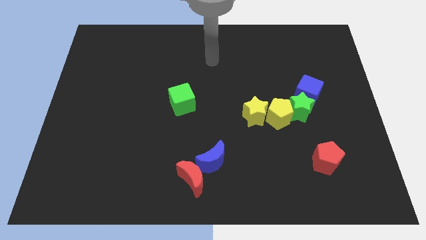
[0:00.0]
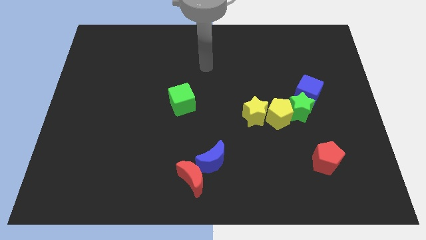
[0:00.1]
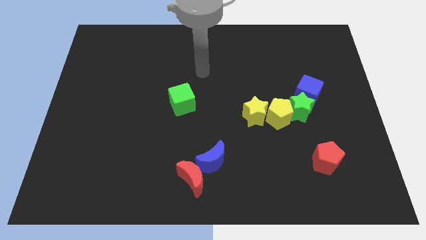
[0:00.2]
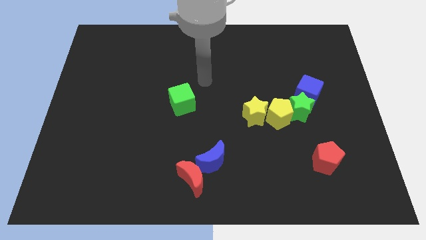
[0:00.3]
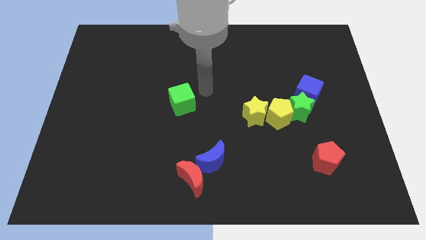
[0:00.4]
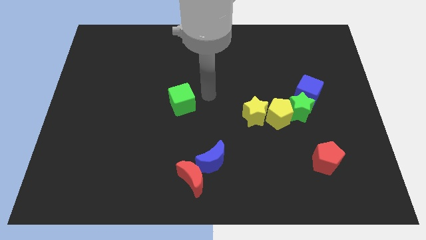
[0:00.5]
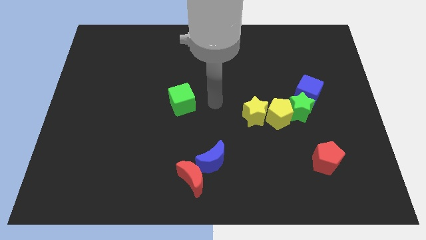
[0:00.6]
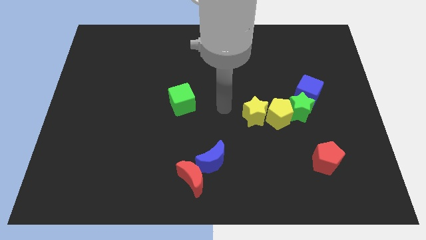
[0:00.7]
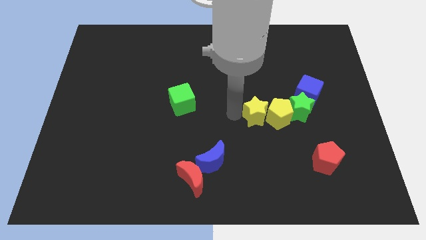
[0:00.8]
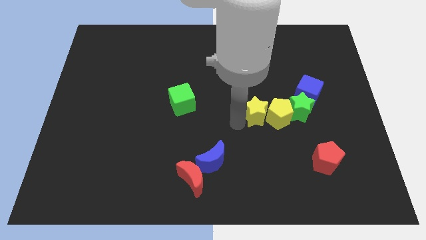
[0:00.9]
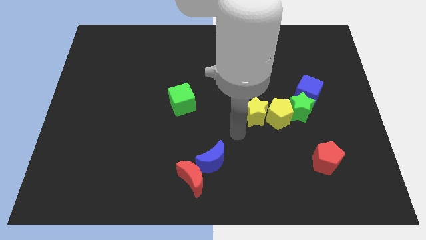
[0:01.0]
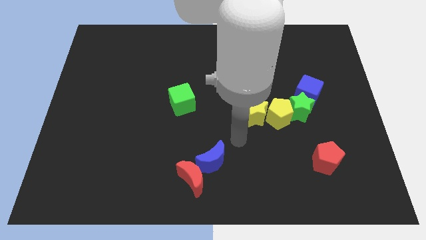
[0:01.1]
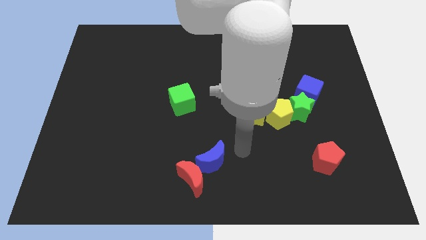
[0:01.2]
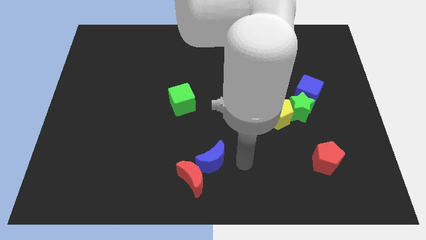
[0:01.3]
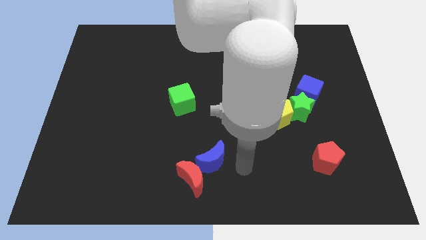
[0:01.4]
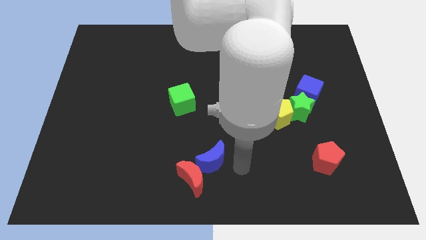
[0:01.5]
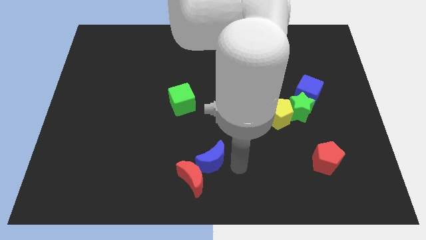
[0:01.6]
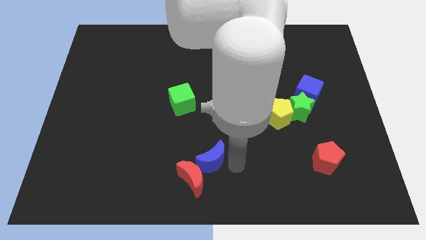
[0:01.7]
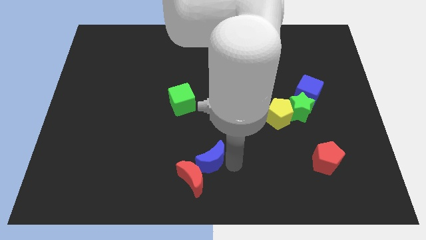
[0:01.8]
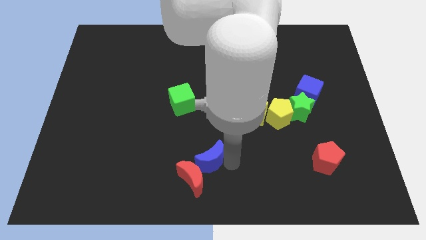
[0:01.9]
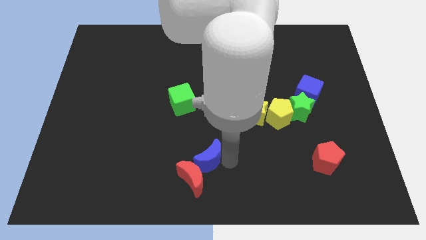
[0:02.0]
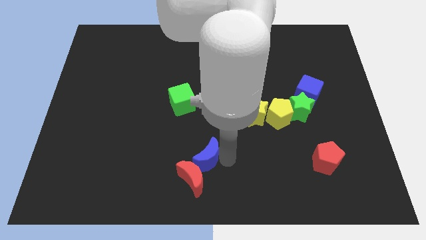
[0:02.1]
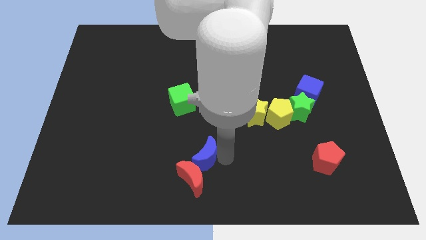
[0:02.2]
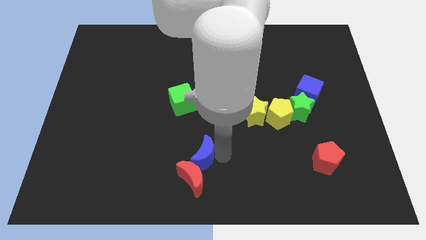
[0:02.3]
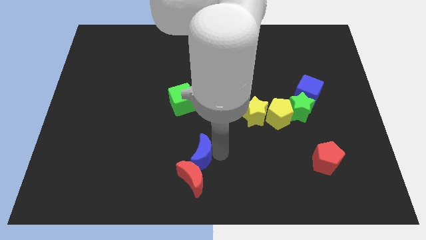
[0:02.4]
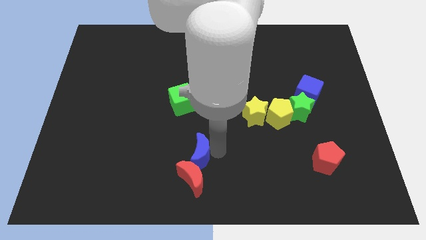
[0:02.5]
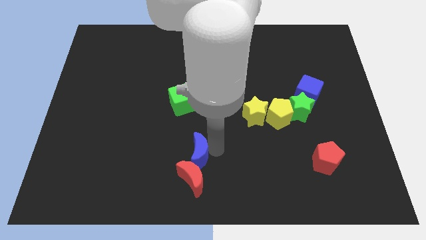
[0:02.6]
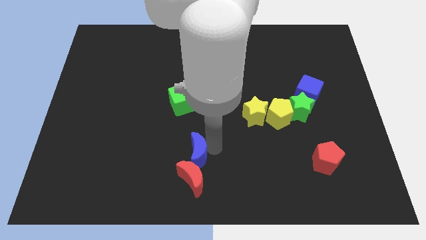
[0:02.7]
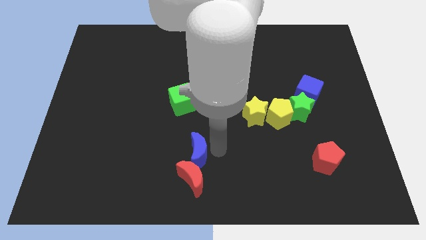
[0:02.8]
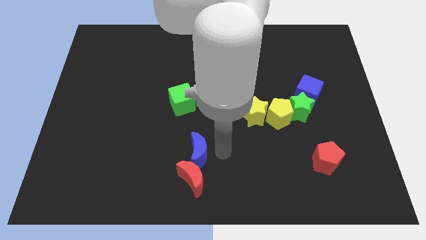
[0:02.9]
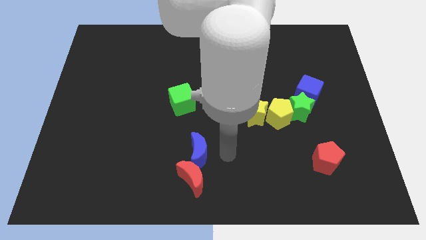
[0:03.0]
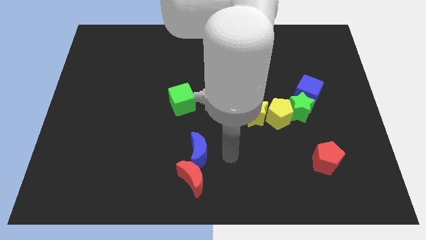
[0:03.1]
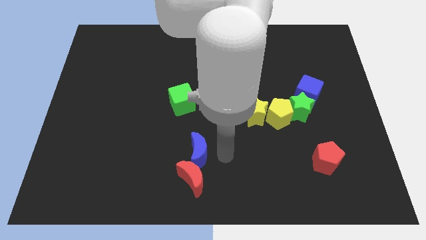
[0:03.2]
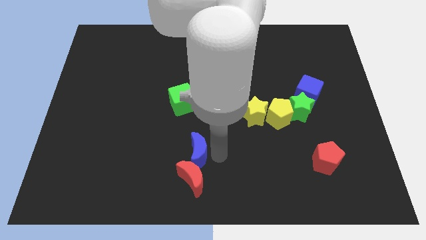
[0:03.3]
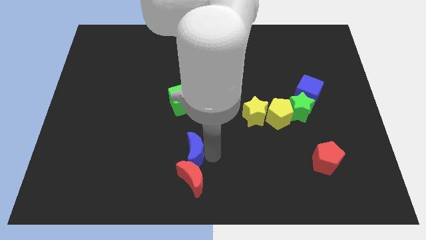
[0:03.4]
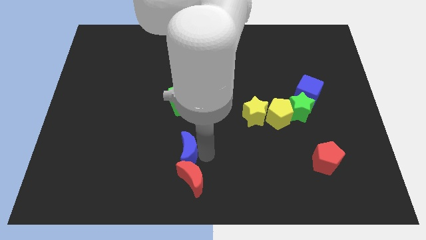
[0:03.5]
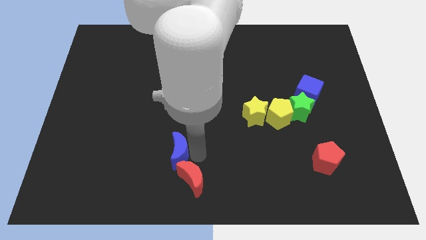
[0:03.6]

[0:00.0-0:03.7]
slide the blue moon left somewhat

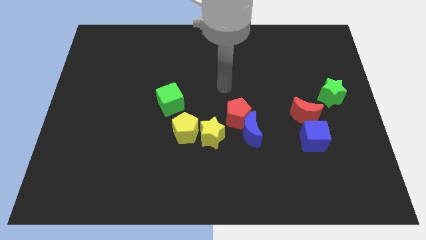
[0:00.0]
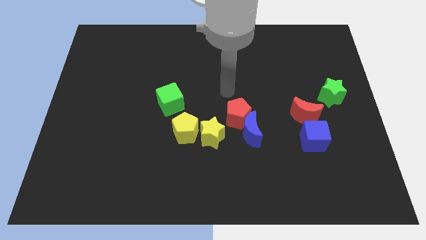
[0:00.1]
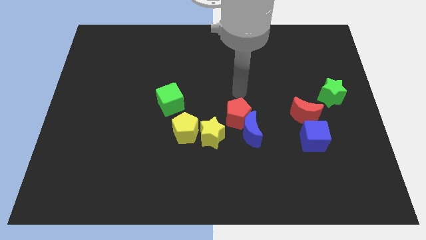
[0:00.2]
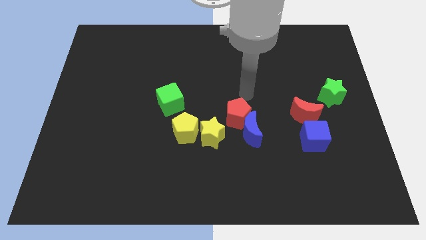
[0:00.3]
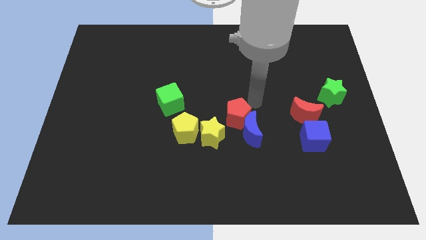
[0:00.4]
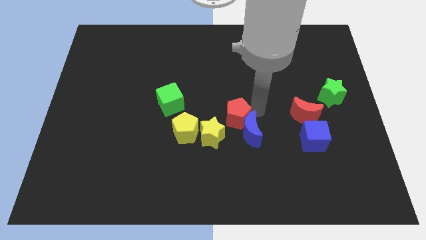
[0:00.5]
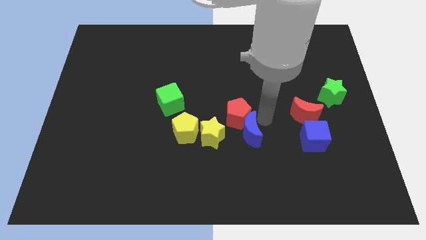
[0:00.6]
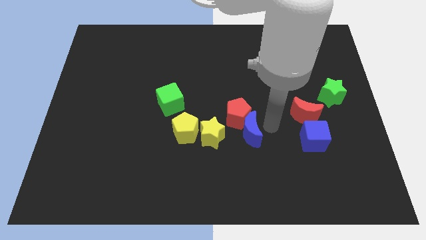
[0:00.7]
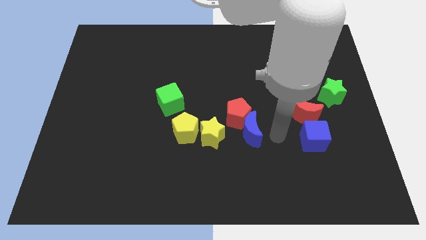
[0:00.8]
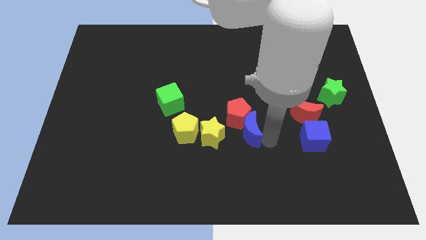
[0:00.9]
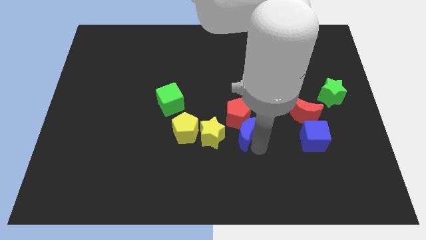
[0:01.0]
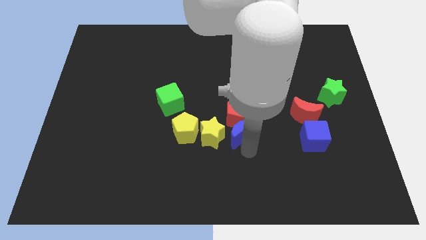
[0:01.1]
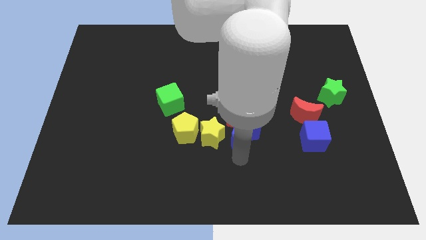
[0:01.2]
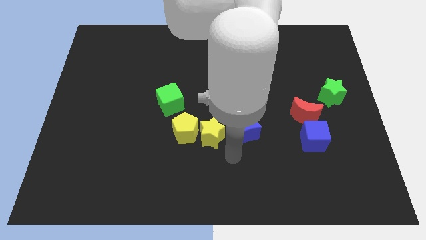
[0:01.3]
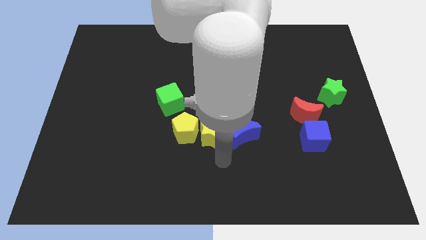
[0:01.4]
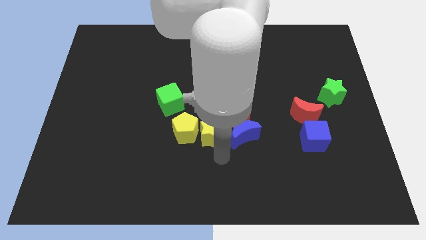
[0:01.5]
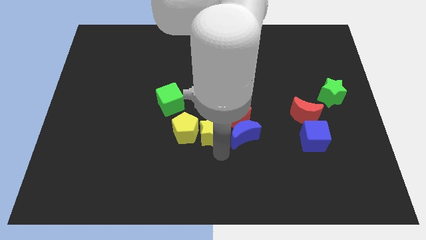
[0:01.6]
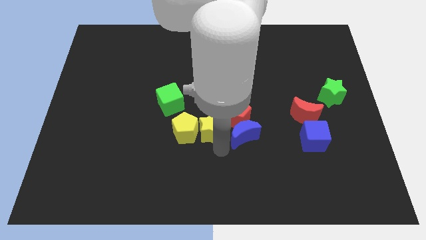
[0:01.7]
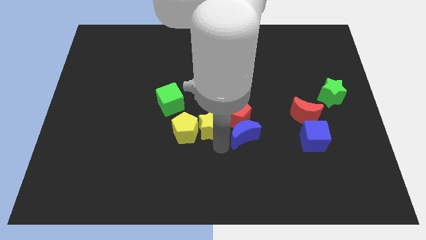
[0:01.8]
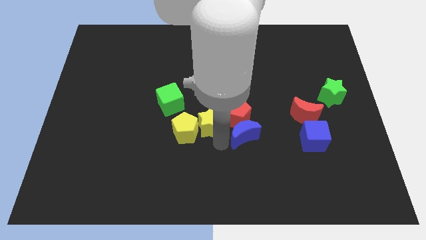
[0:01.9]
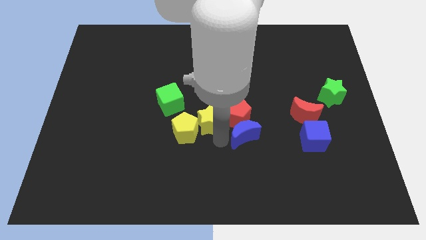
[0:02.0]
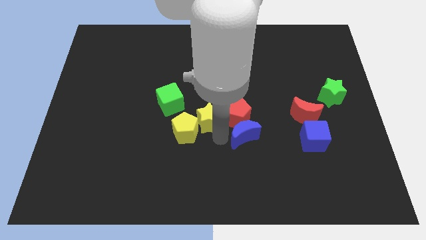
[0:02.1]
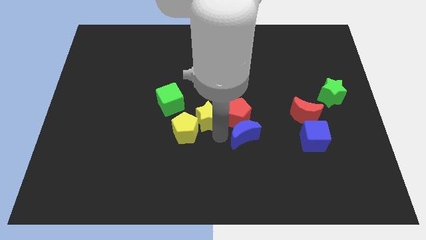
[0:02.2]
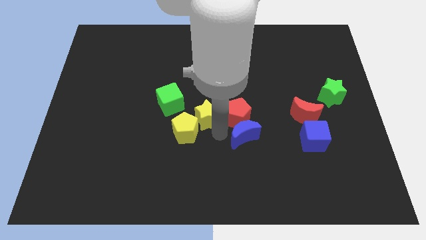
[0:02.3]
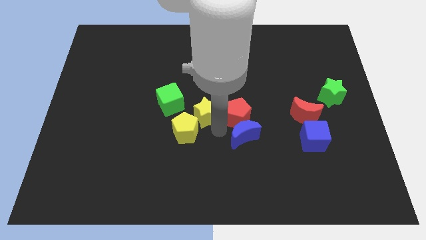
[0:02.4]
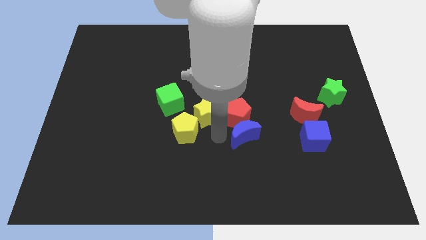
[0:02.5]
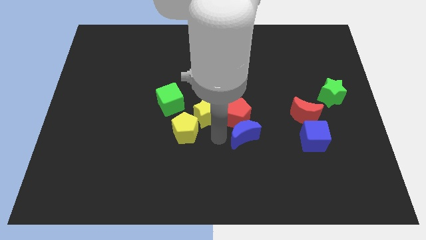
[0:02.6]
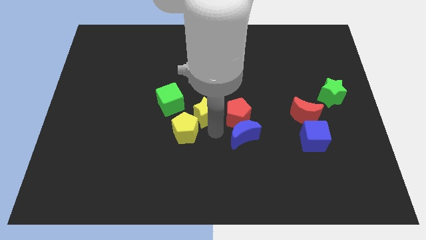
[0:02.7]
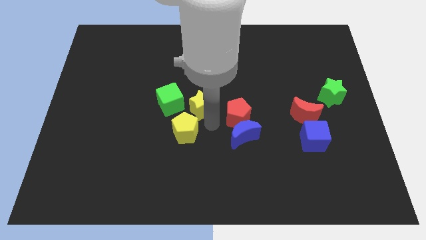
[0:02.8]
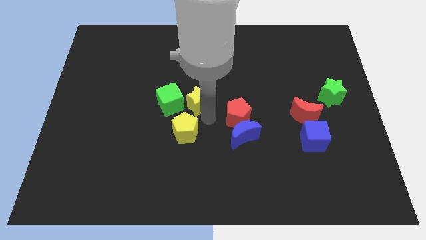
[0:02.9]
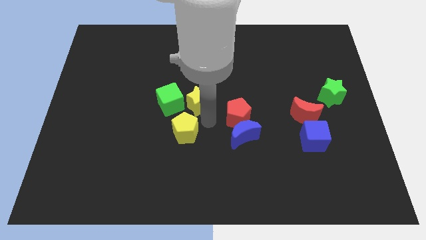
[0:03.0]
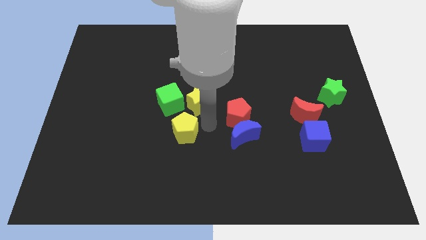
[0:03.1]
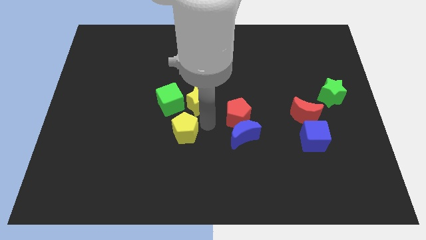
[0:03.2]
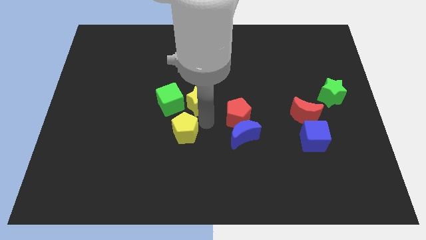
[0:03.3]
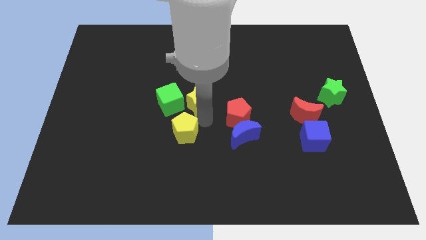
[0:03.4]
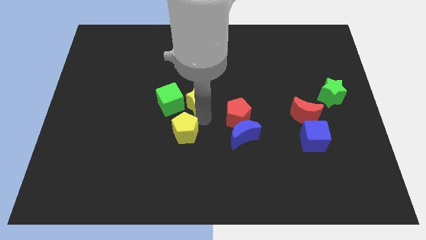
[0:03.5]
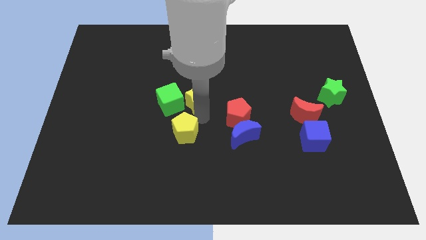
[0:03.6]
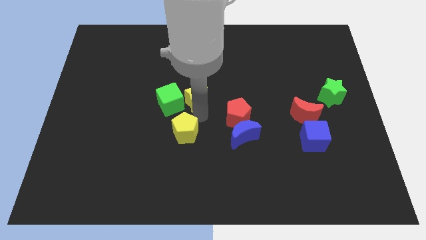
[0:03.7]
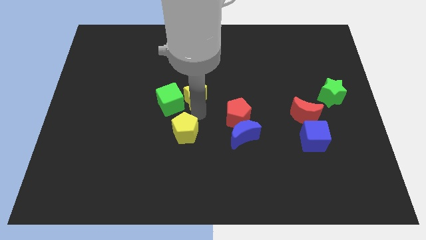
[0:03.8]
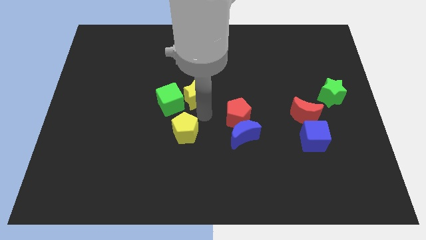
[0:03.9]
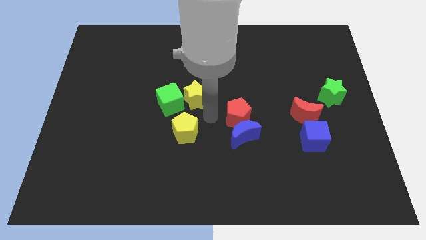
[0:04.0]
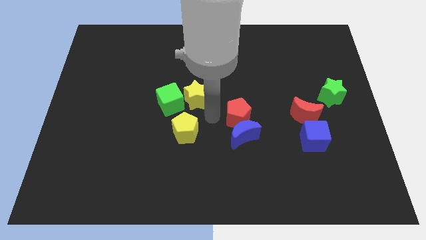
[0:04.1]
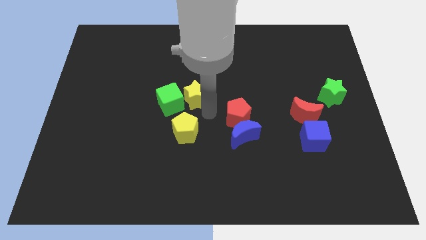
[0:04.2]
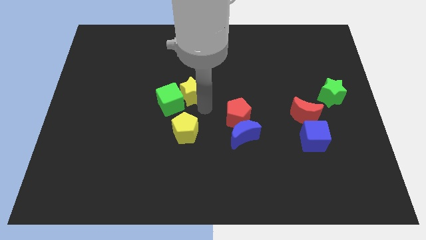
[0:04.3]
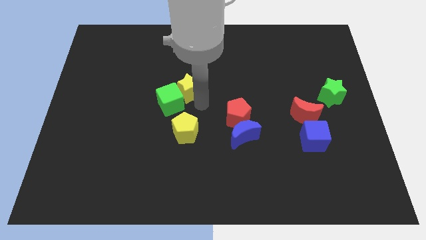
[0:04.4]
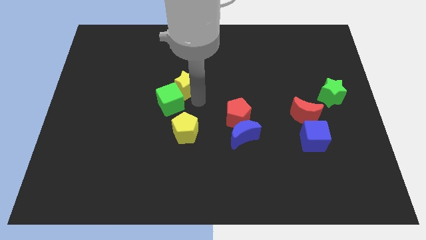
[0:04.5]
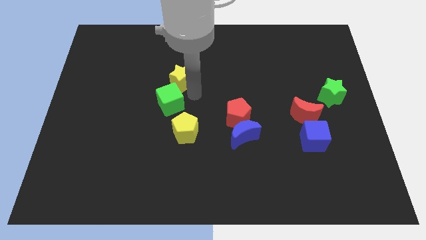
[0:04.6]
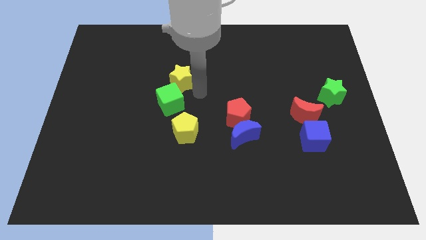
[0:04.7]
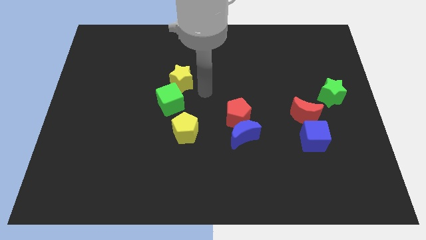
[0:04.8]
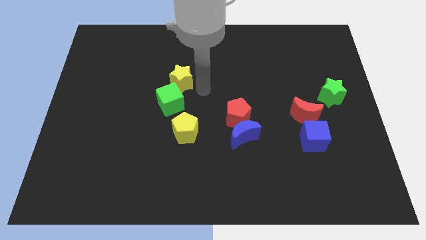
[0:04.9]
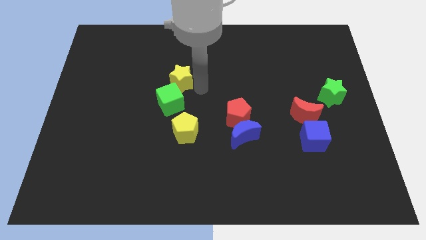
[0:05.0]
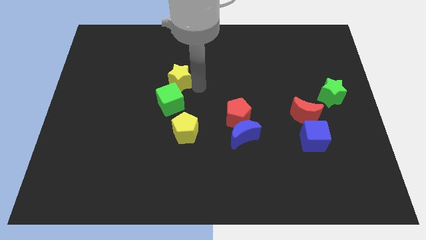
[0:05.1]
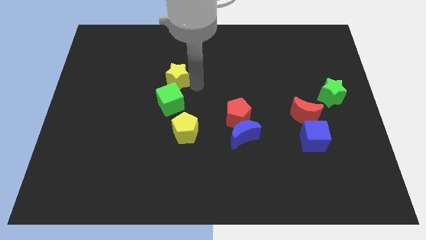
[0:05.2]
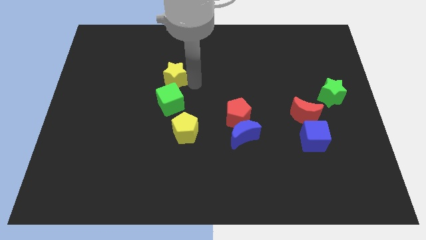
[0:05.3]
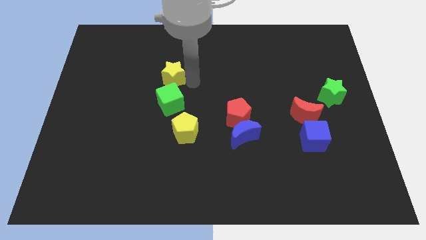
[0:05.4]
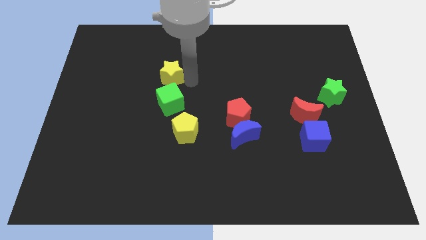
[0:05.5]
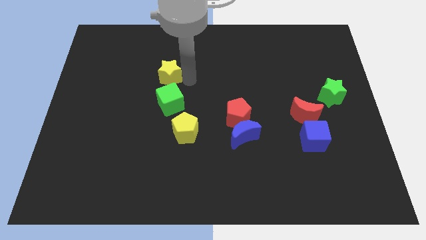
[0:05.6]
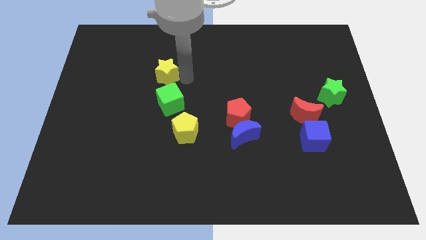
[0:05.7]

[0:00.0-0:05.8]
push the yellow star up and left
